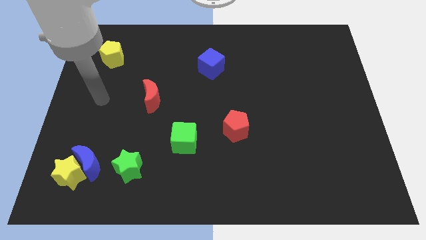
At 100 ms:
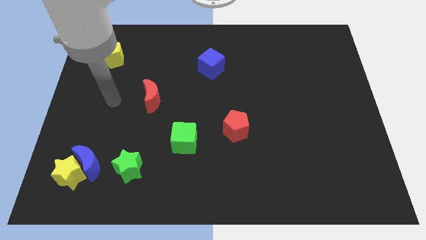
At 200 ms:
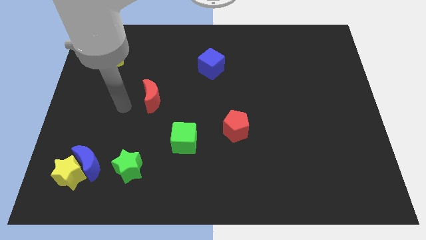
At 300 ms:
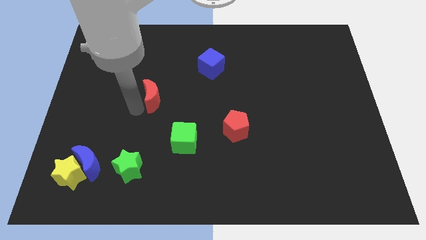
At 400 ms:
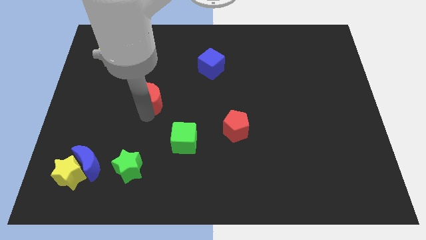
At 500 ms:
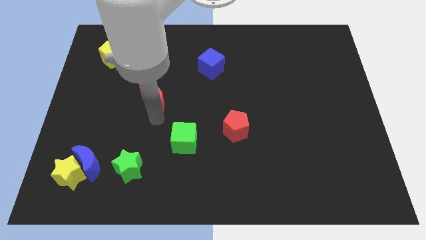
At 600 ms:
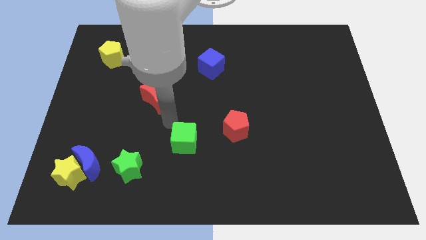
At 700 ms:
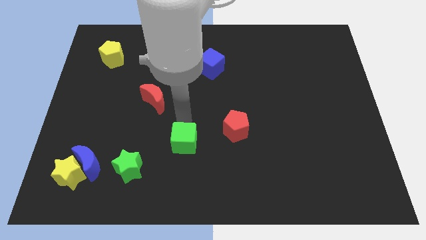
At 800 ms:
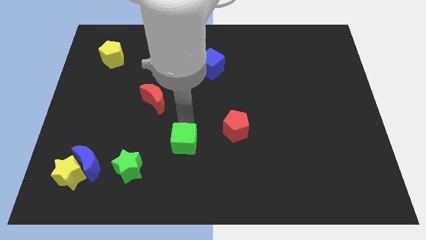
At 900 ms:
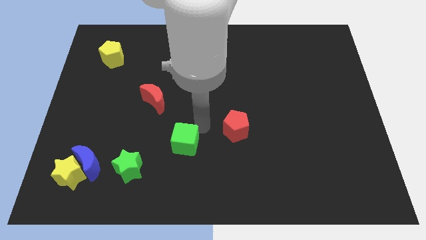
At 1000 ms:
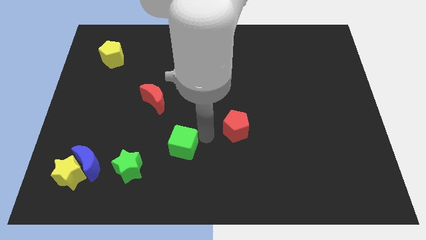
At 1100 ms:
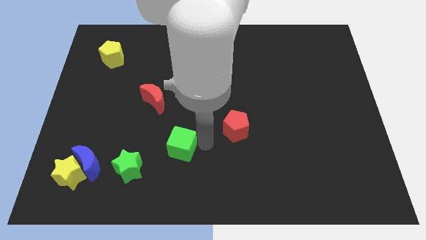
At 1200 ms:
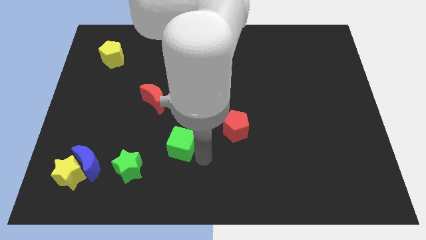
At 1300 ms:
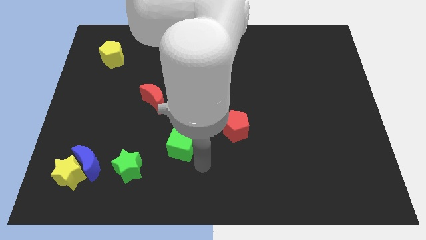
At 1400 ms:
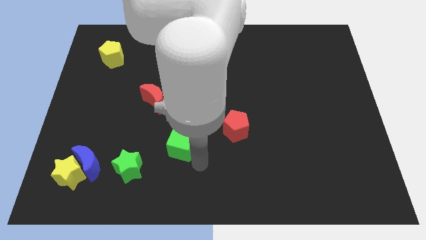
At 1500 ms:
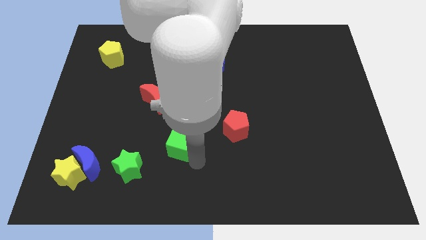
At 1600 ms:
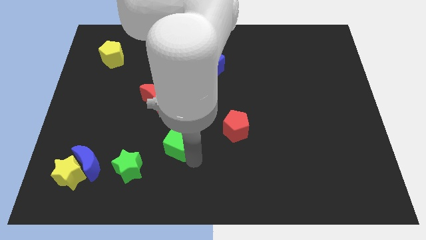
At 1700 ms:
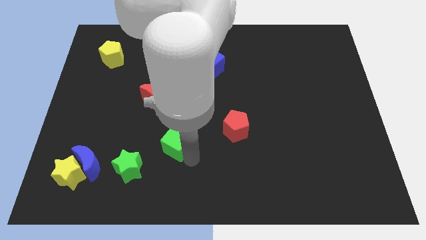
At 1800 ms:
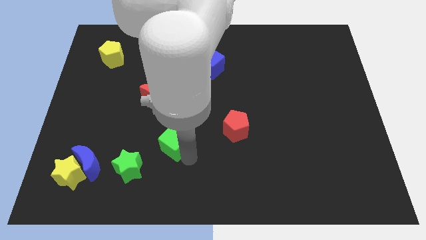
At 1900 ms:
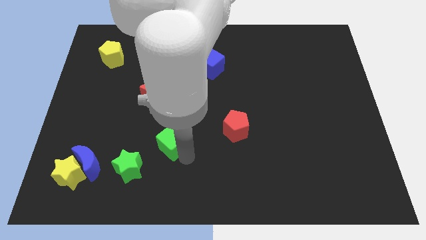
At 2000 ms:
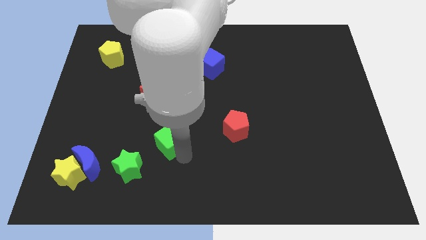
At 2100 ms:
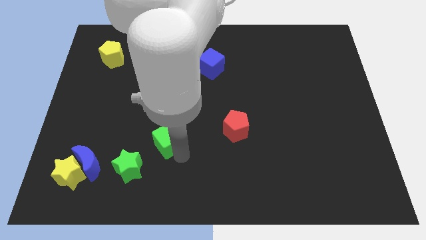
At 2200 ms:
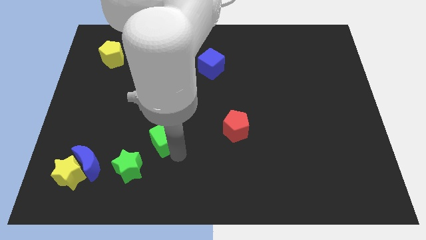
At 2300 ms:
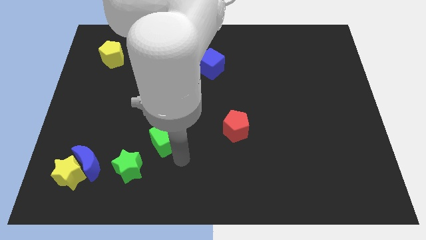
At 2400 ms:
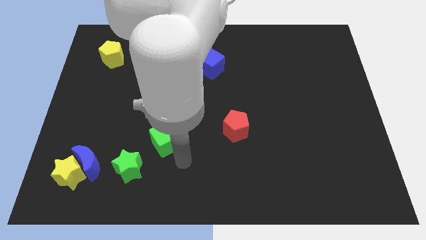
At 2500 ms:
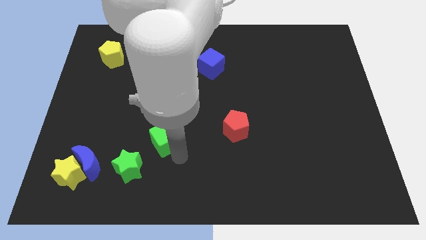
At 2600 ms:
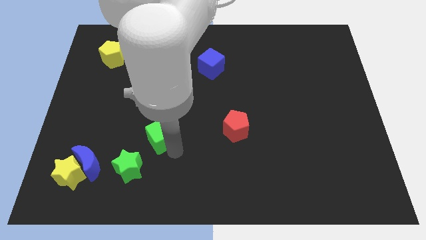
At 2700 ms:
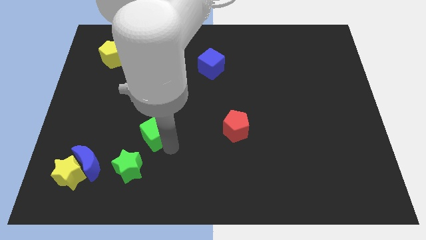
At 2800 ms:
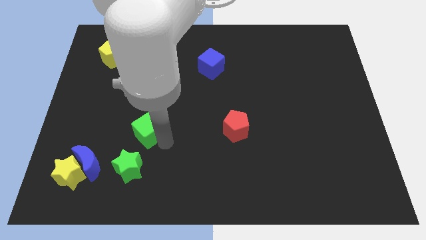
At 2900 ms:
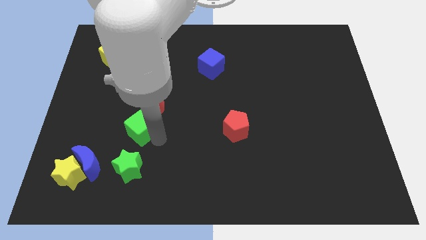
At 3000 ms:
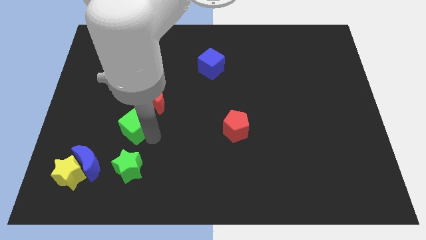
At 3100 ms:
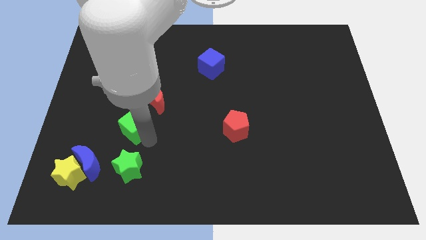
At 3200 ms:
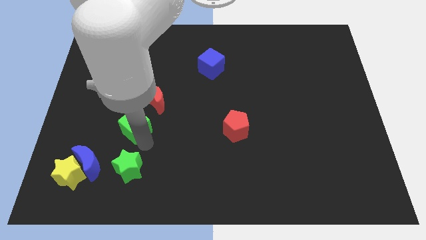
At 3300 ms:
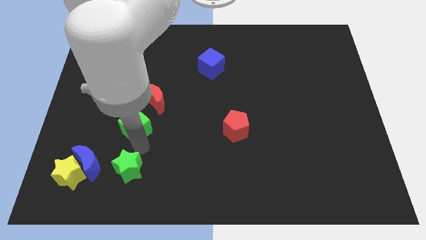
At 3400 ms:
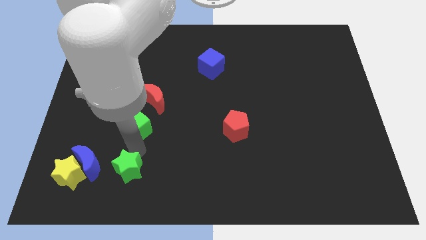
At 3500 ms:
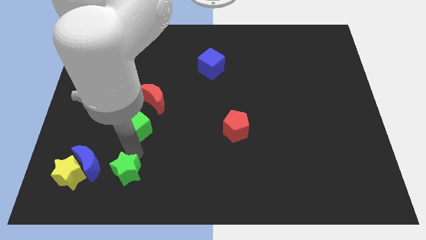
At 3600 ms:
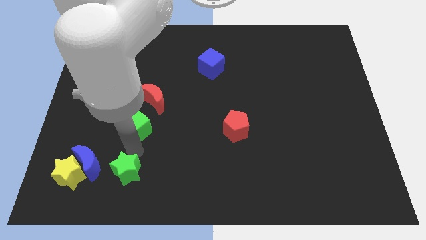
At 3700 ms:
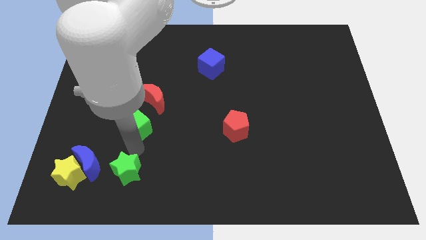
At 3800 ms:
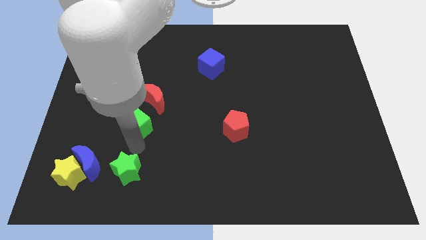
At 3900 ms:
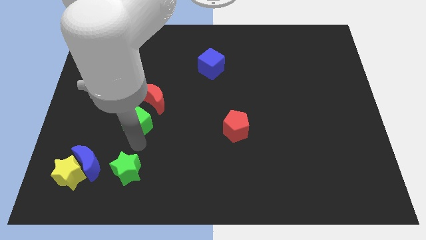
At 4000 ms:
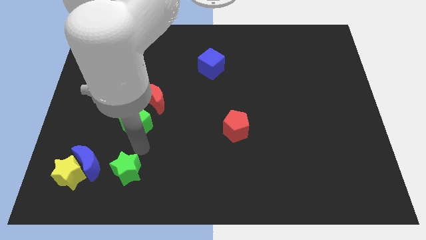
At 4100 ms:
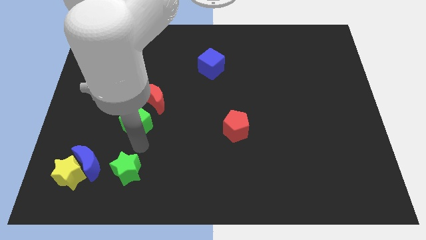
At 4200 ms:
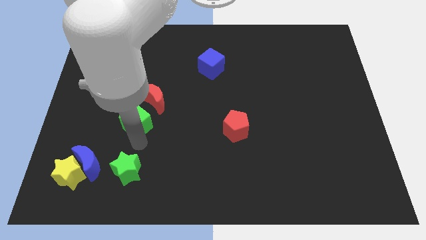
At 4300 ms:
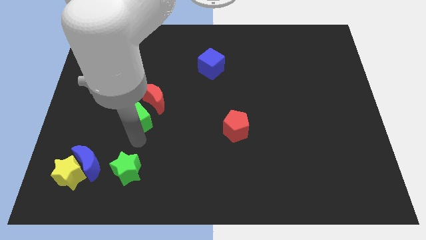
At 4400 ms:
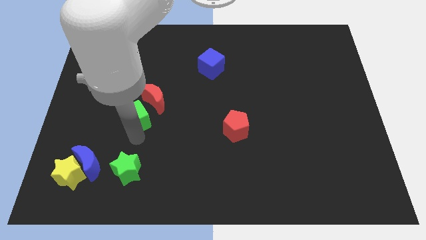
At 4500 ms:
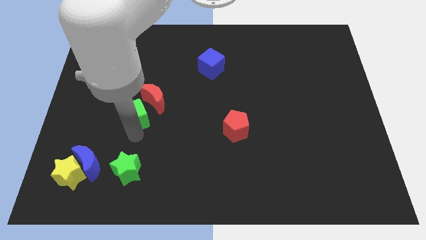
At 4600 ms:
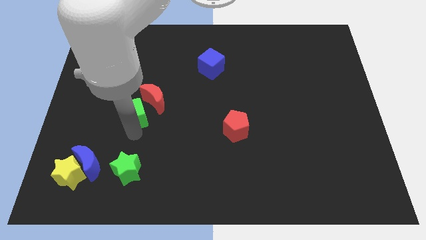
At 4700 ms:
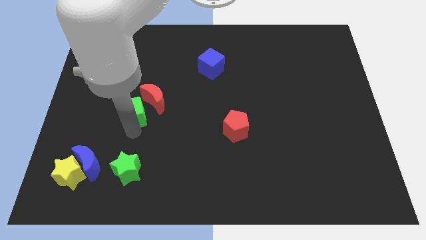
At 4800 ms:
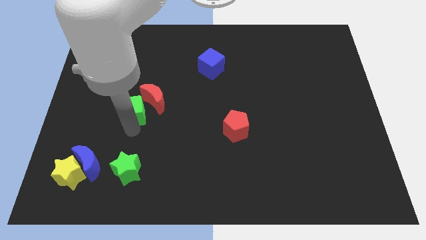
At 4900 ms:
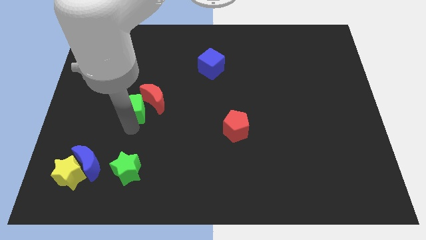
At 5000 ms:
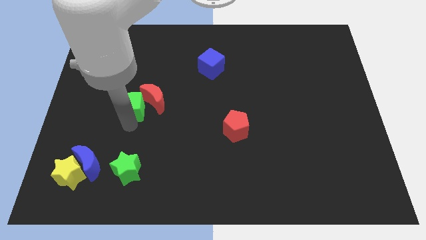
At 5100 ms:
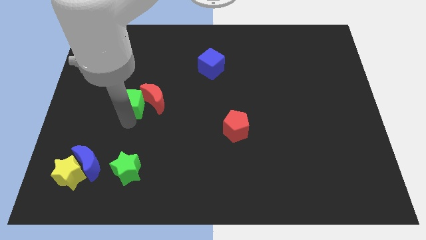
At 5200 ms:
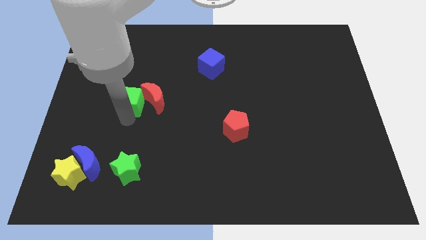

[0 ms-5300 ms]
push the green cube diagonally up and to the left of the red moon

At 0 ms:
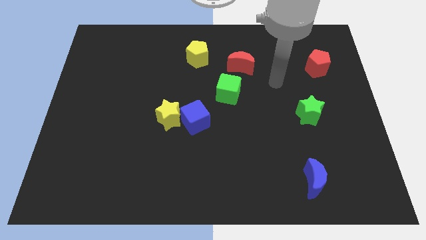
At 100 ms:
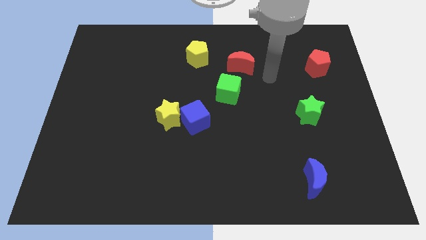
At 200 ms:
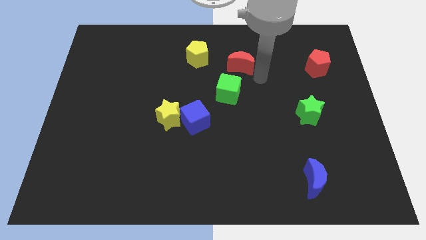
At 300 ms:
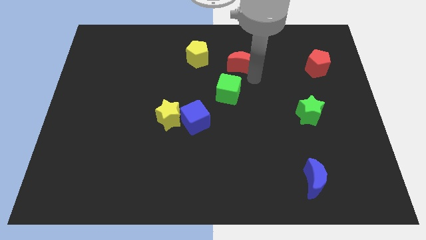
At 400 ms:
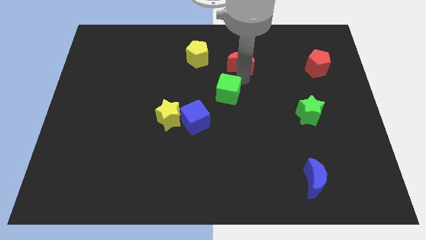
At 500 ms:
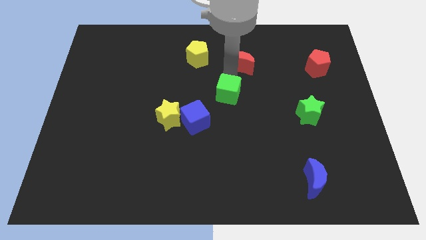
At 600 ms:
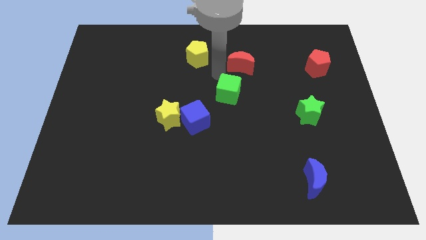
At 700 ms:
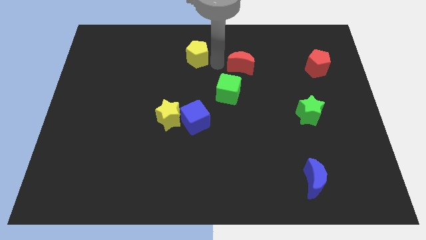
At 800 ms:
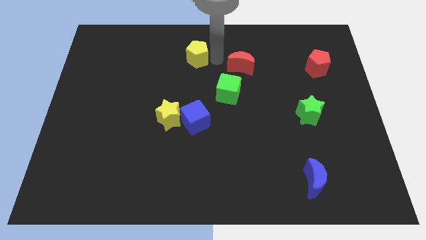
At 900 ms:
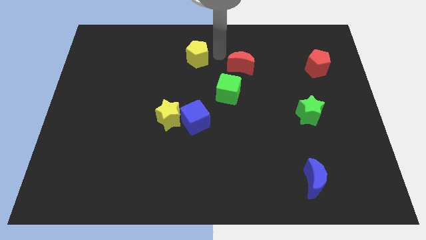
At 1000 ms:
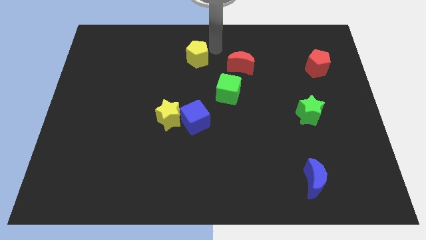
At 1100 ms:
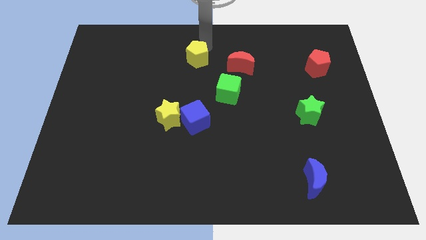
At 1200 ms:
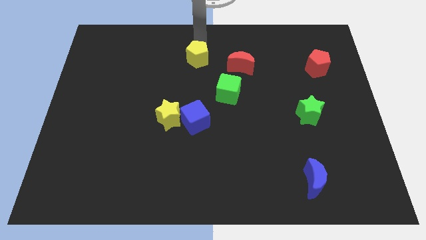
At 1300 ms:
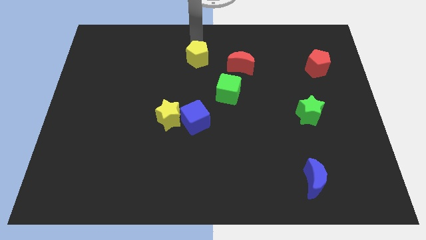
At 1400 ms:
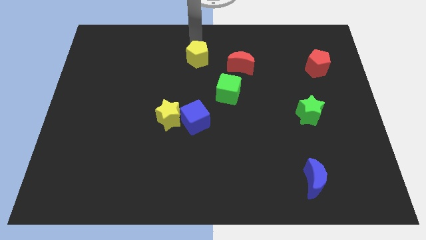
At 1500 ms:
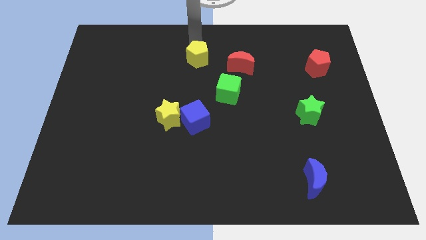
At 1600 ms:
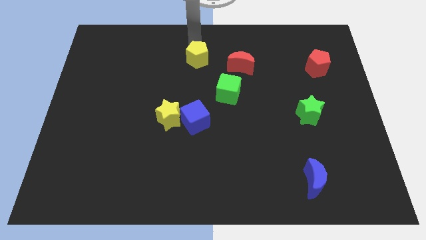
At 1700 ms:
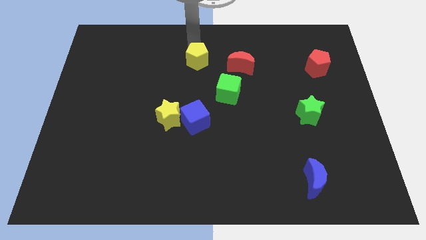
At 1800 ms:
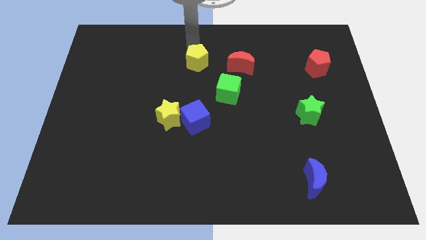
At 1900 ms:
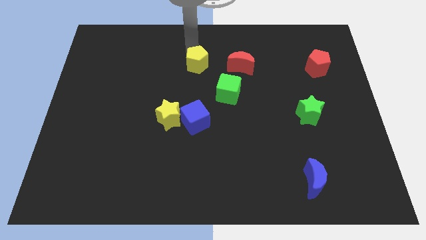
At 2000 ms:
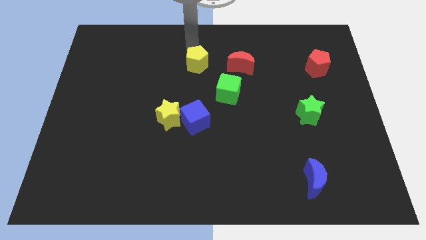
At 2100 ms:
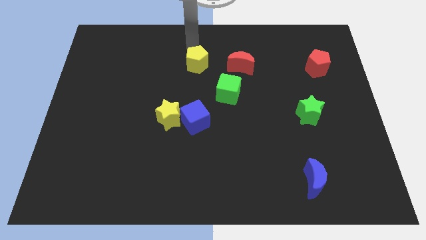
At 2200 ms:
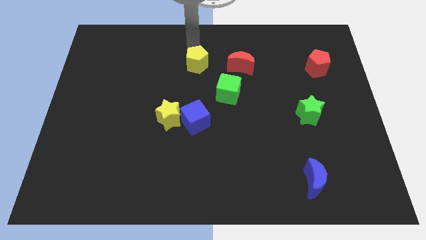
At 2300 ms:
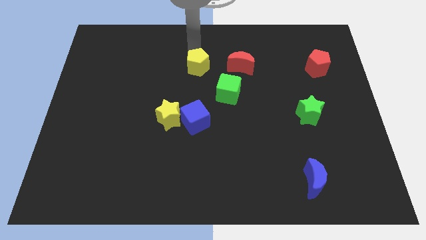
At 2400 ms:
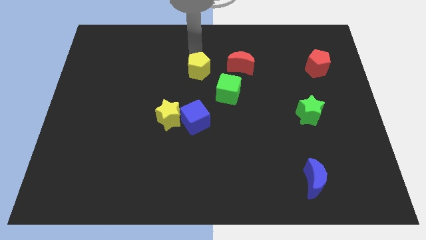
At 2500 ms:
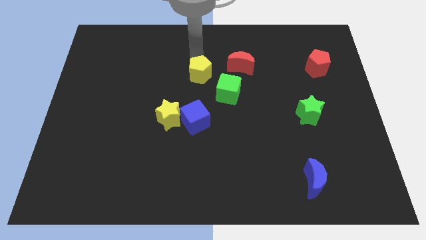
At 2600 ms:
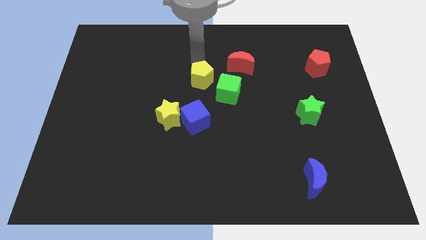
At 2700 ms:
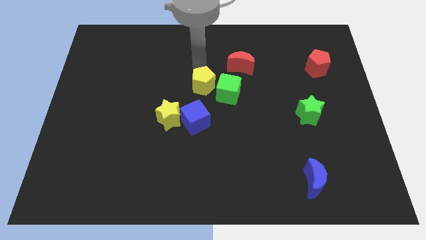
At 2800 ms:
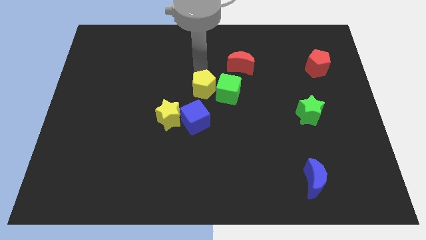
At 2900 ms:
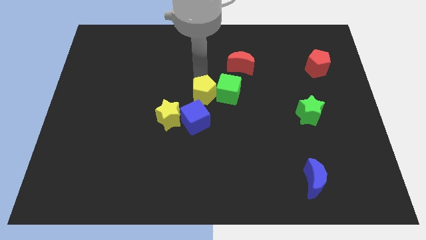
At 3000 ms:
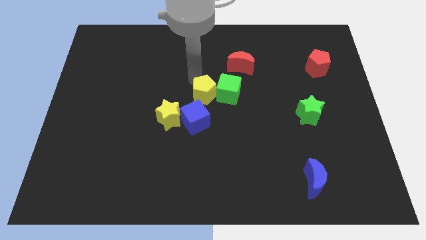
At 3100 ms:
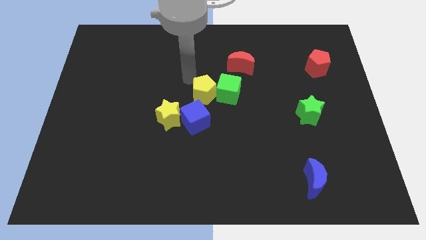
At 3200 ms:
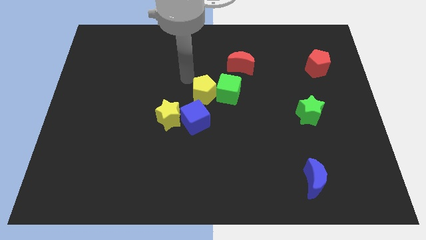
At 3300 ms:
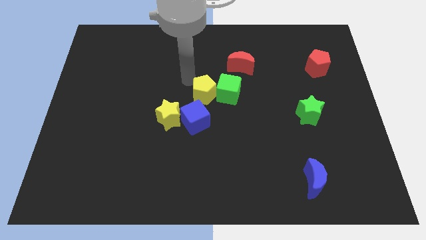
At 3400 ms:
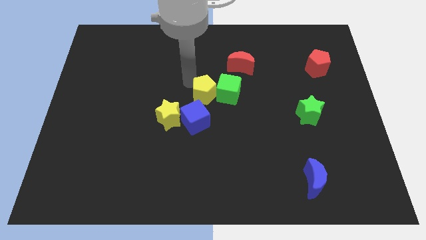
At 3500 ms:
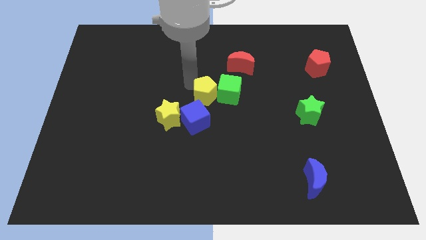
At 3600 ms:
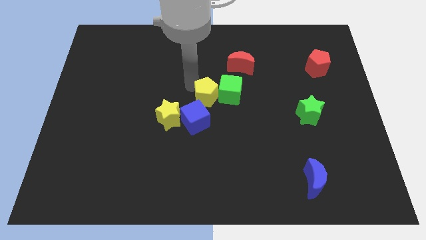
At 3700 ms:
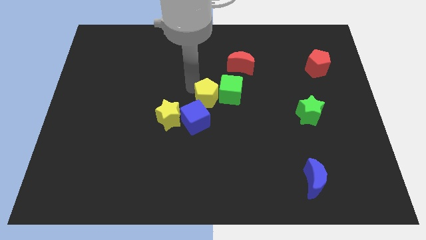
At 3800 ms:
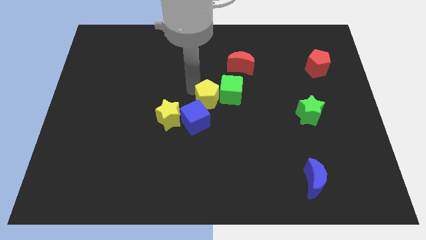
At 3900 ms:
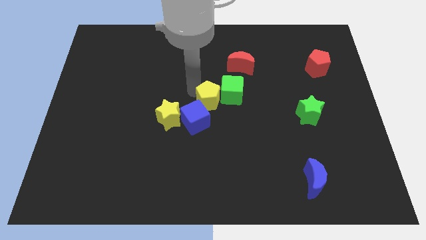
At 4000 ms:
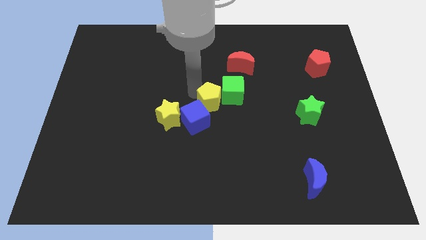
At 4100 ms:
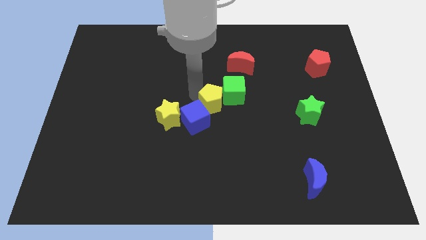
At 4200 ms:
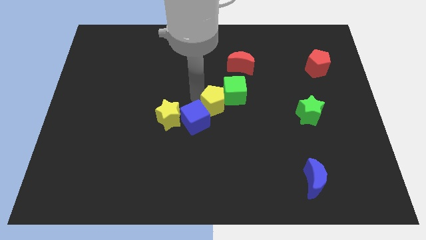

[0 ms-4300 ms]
slide the yellow pentagon right of the blue cube
